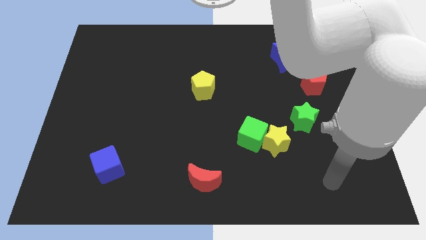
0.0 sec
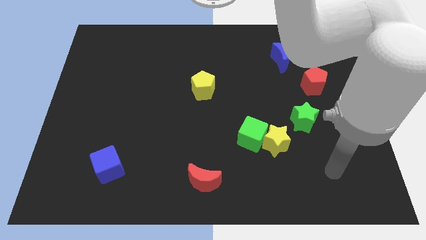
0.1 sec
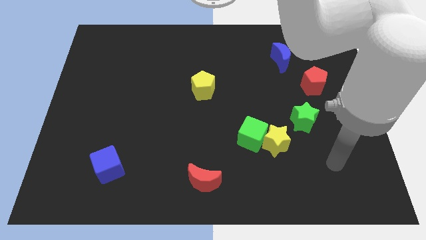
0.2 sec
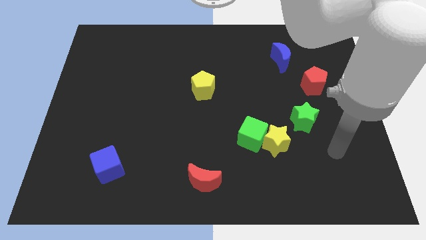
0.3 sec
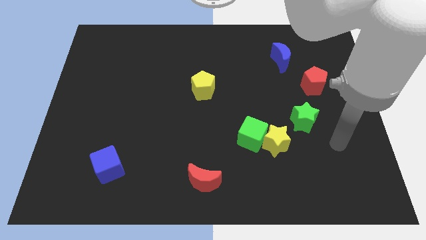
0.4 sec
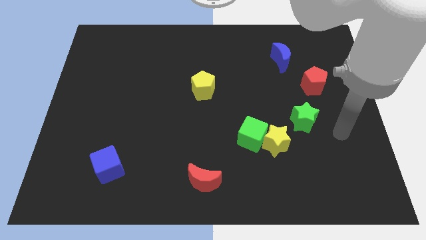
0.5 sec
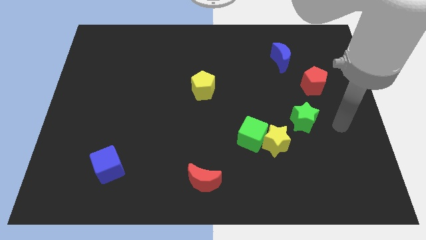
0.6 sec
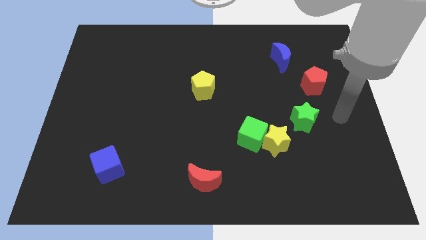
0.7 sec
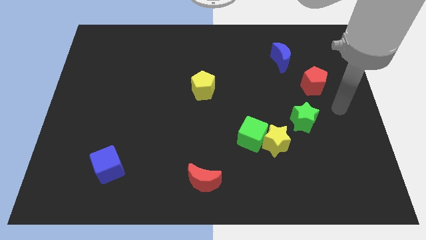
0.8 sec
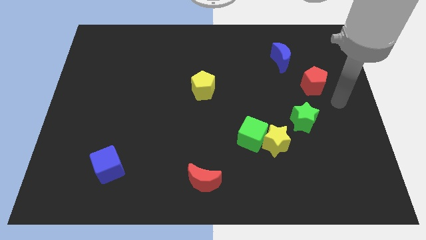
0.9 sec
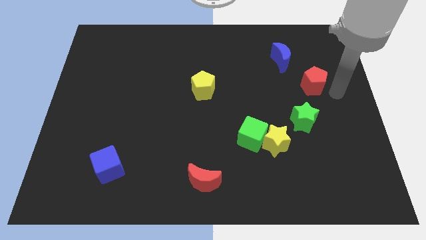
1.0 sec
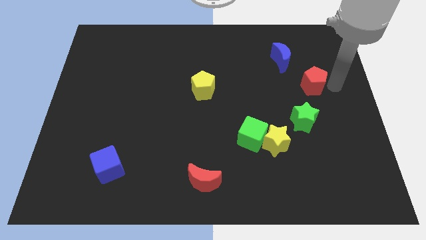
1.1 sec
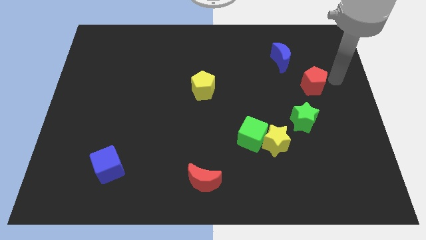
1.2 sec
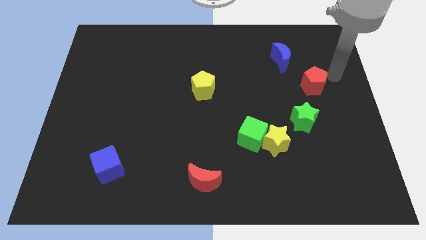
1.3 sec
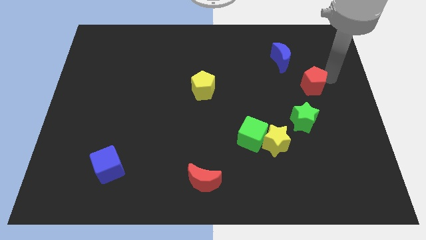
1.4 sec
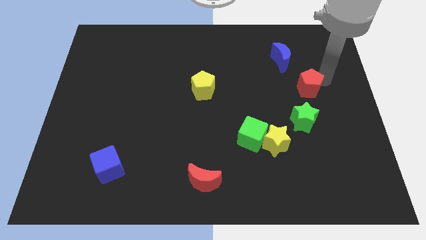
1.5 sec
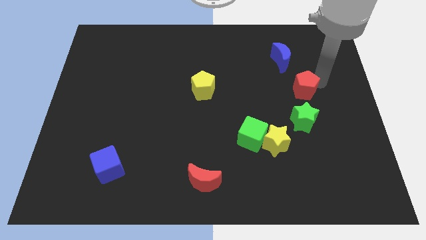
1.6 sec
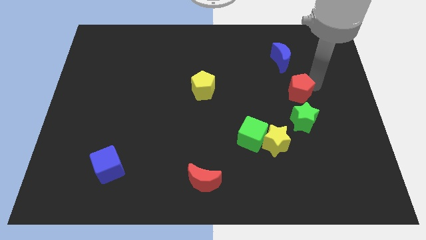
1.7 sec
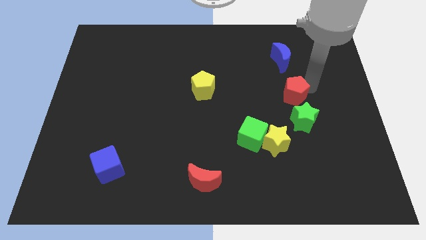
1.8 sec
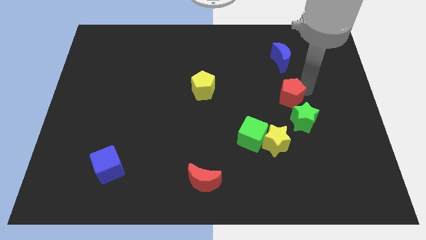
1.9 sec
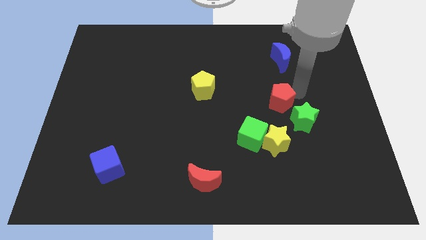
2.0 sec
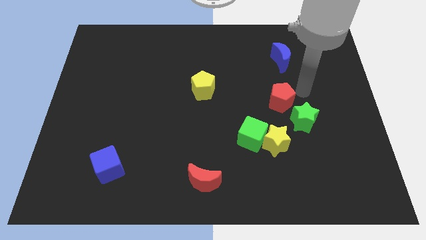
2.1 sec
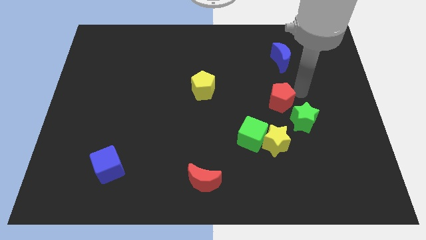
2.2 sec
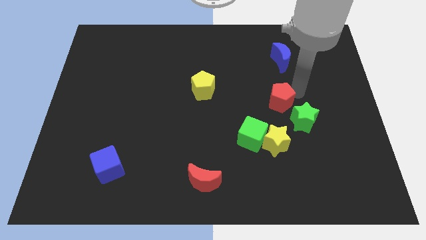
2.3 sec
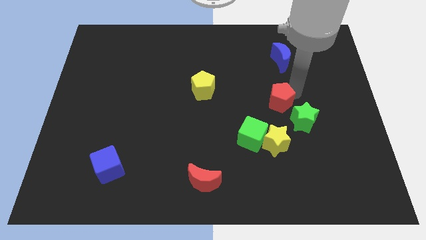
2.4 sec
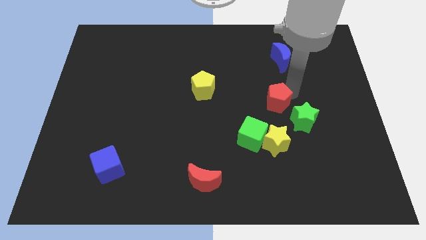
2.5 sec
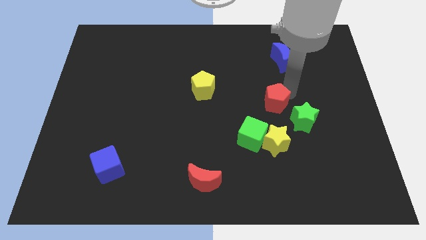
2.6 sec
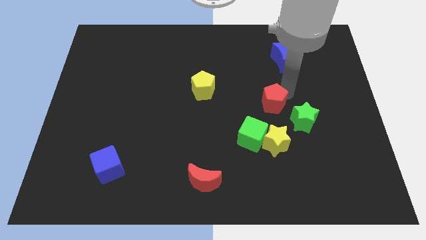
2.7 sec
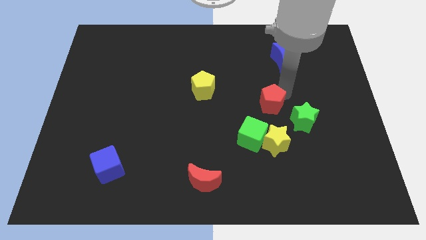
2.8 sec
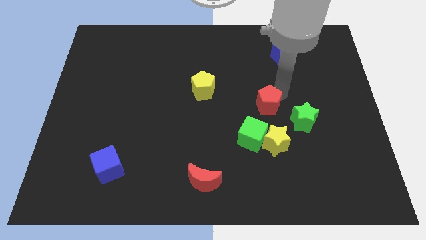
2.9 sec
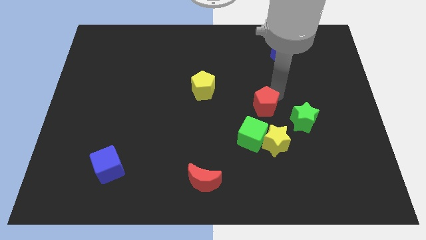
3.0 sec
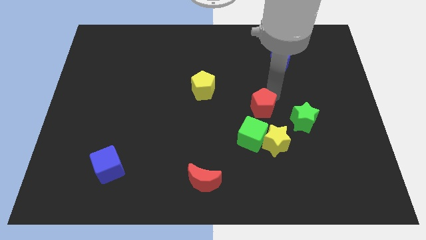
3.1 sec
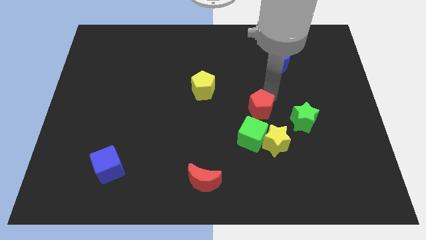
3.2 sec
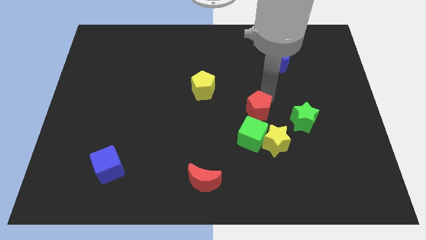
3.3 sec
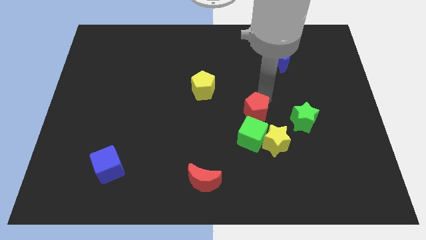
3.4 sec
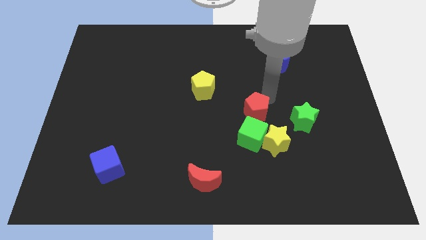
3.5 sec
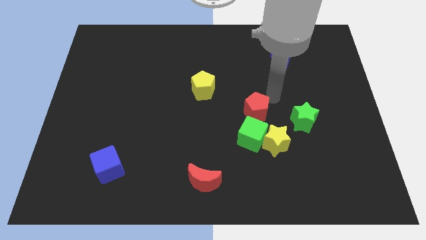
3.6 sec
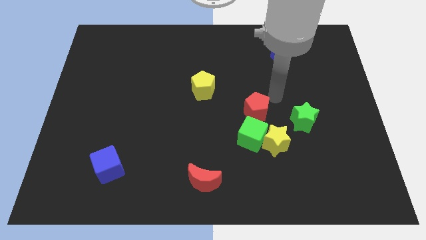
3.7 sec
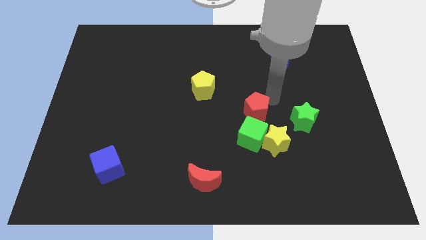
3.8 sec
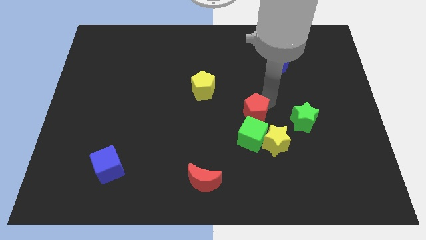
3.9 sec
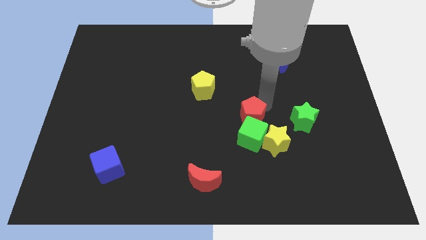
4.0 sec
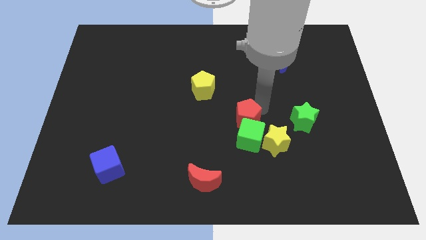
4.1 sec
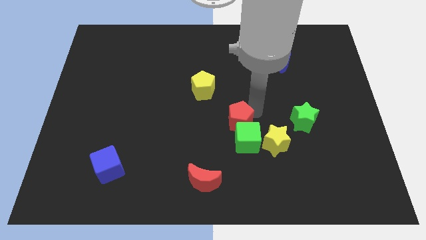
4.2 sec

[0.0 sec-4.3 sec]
move the red pentagon downwards and then to the left

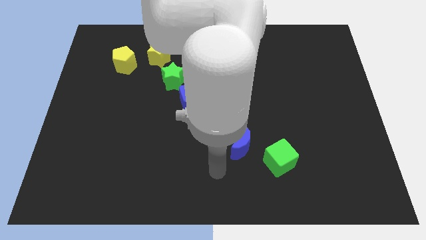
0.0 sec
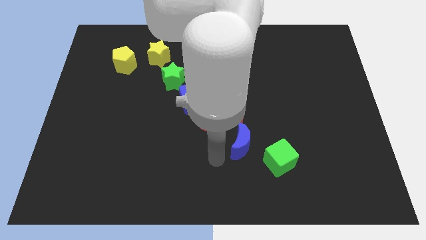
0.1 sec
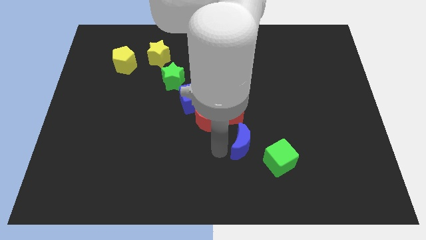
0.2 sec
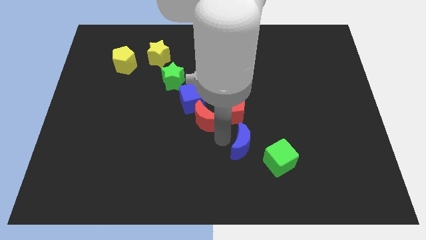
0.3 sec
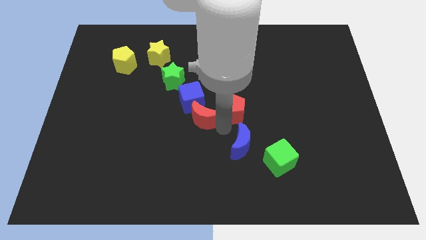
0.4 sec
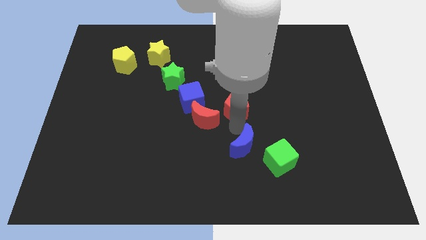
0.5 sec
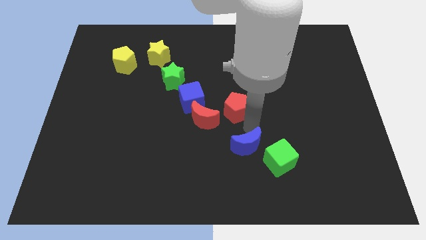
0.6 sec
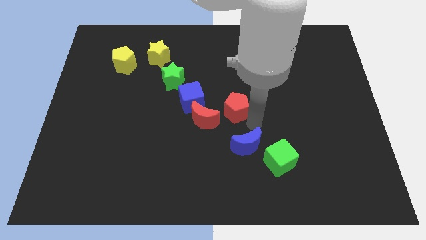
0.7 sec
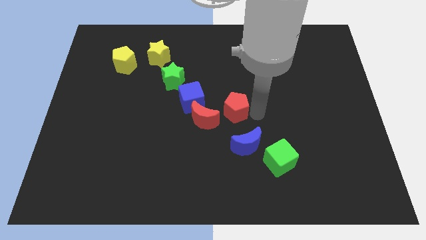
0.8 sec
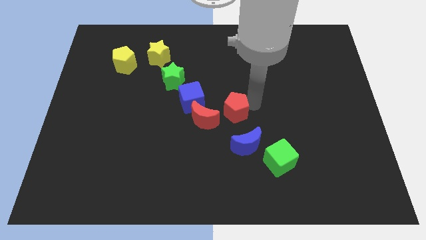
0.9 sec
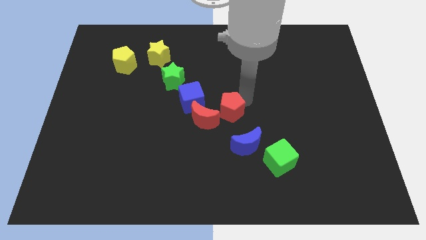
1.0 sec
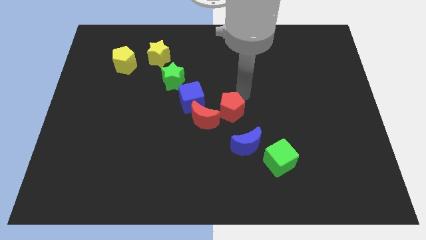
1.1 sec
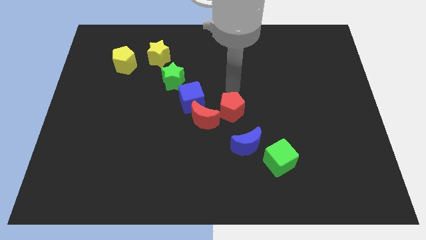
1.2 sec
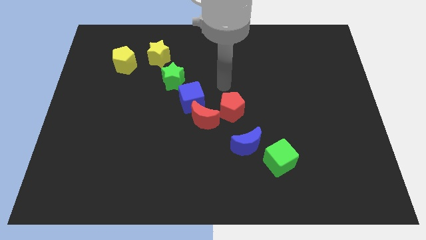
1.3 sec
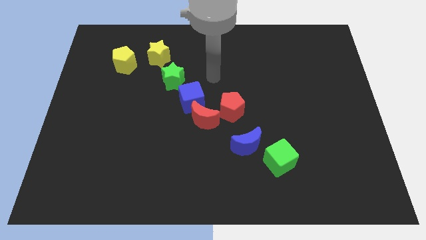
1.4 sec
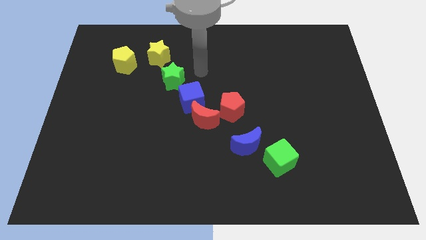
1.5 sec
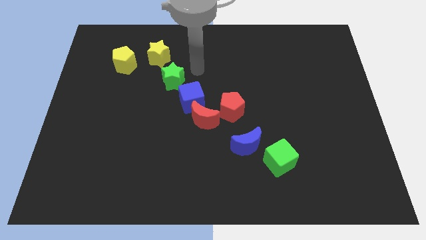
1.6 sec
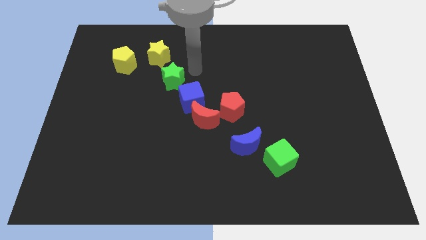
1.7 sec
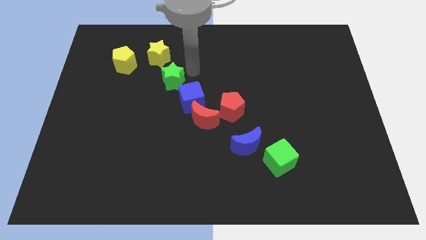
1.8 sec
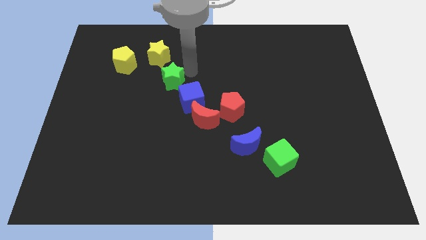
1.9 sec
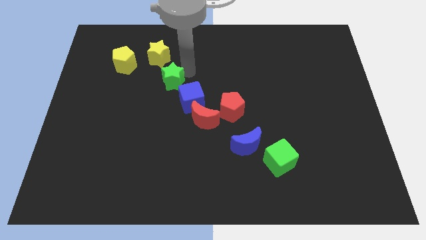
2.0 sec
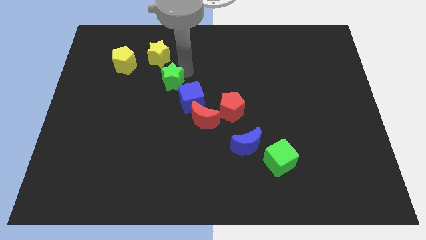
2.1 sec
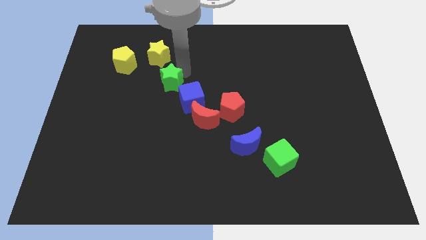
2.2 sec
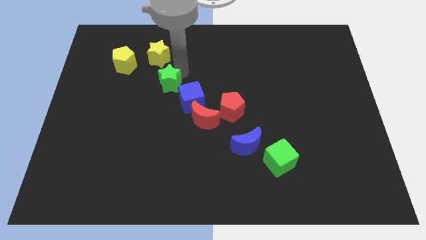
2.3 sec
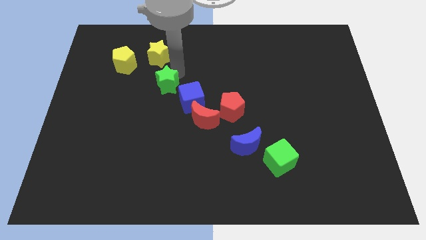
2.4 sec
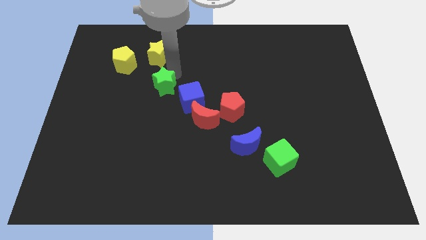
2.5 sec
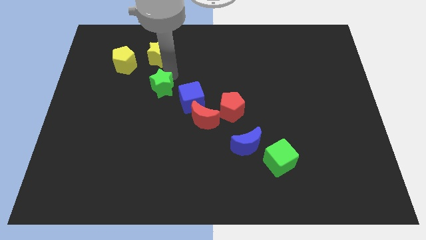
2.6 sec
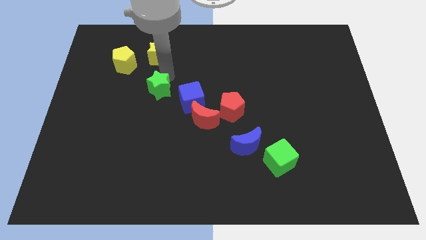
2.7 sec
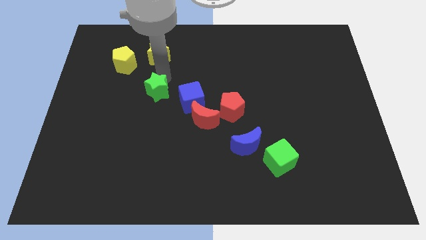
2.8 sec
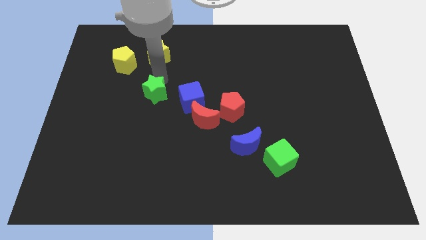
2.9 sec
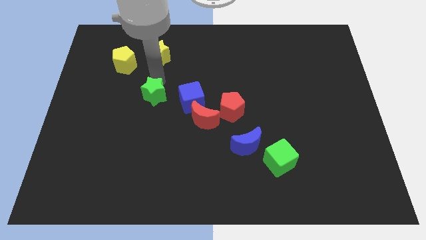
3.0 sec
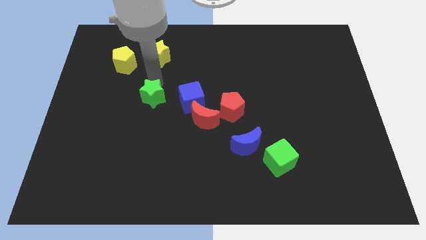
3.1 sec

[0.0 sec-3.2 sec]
slide the green star downwards and to the left diagonally a bit
